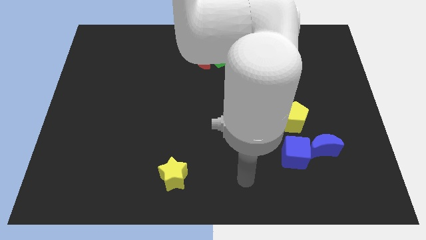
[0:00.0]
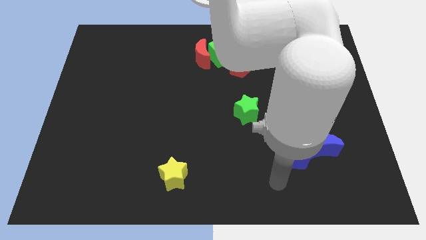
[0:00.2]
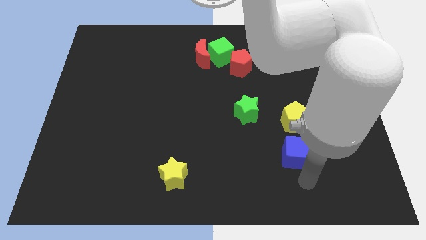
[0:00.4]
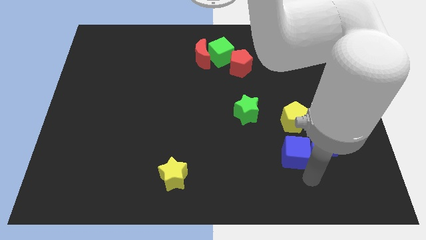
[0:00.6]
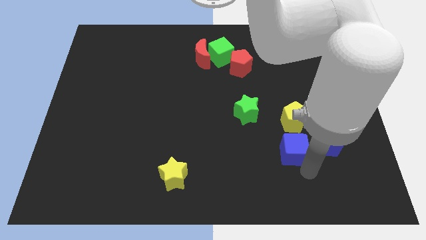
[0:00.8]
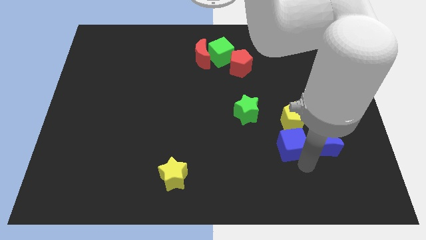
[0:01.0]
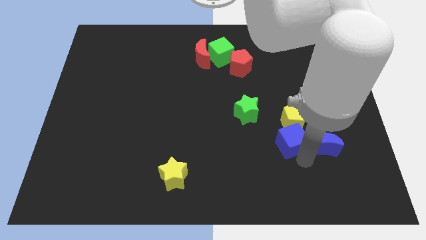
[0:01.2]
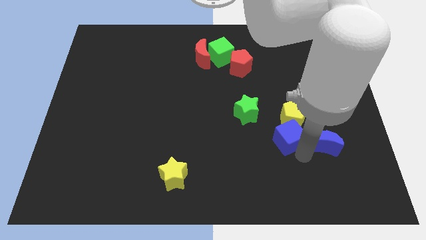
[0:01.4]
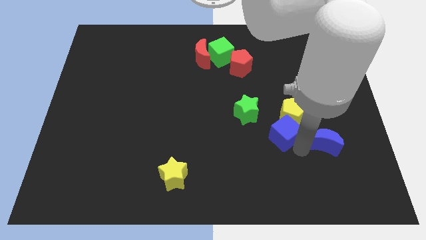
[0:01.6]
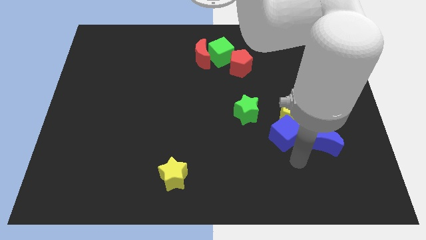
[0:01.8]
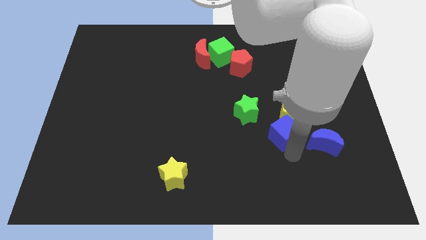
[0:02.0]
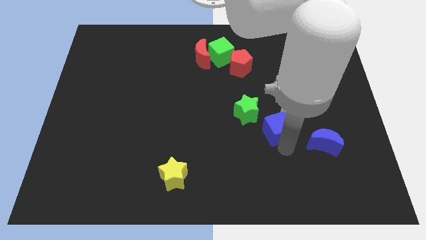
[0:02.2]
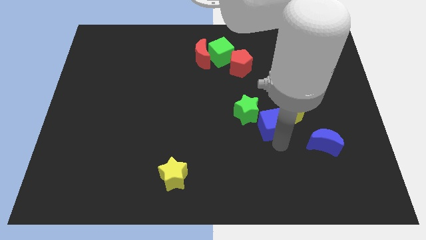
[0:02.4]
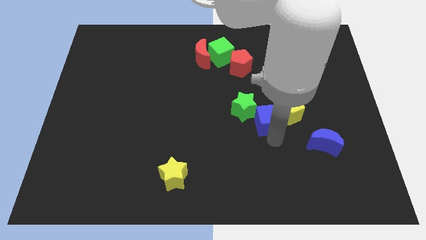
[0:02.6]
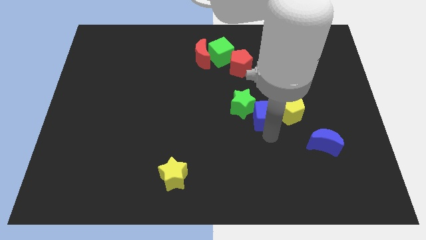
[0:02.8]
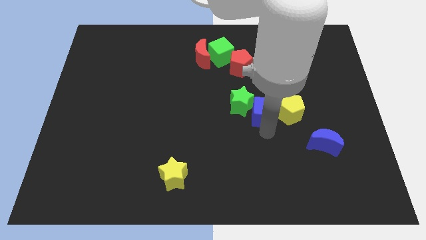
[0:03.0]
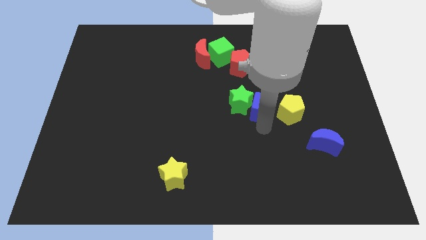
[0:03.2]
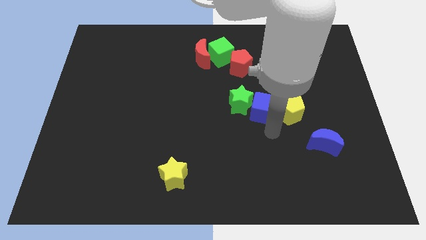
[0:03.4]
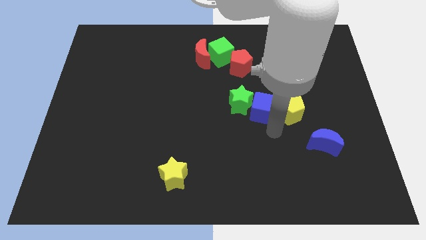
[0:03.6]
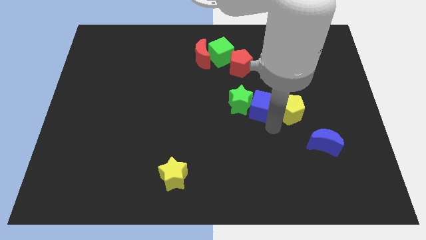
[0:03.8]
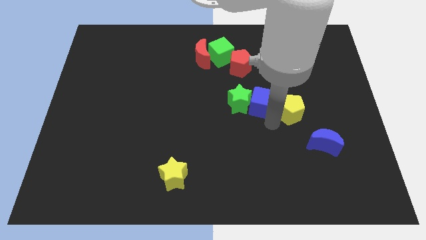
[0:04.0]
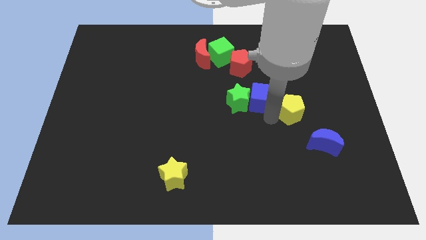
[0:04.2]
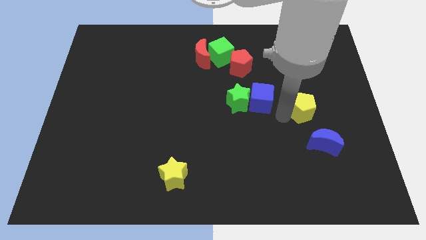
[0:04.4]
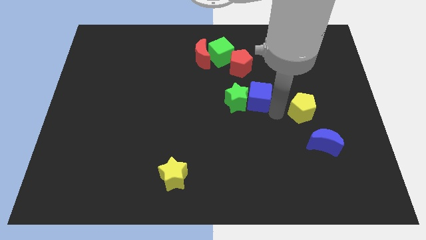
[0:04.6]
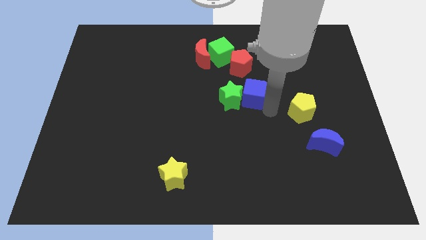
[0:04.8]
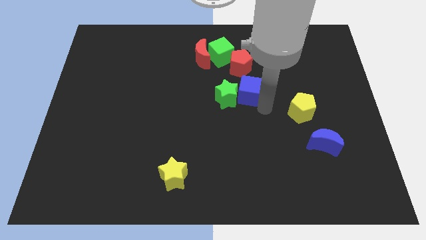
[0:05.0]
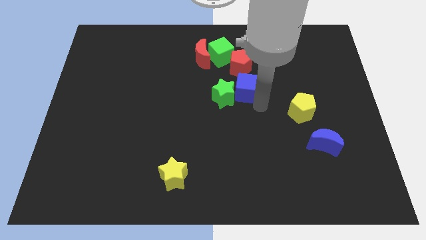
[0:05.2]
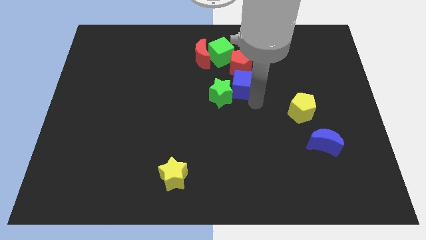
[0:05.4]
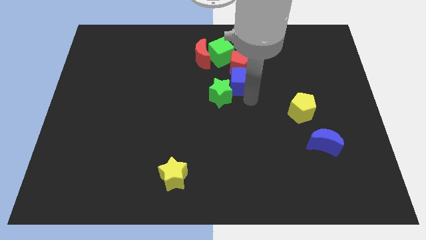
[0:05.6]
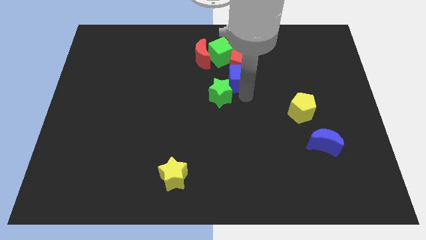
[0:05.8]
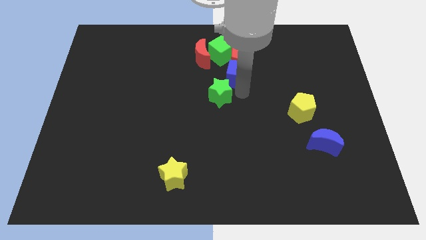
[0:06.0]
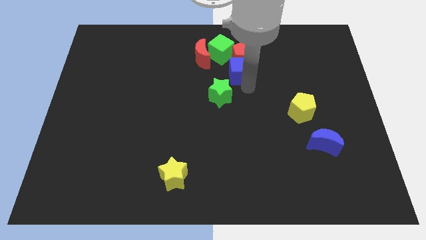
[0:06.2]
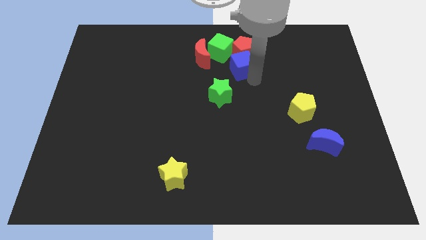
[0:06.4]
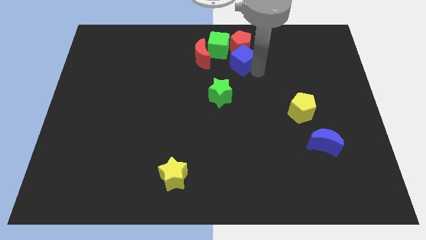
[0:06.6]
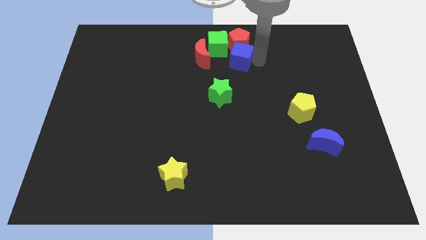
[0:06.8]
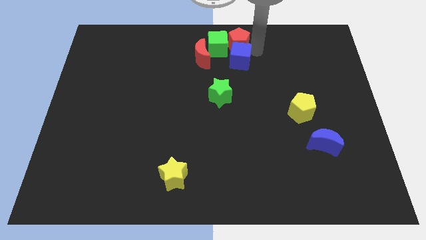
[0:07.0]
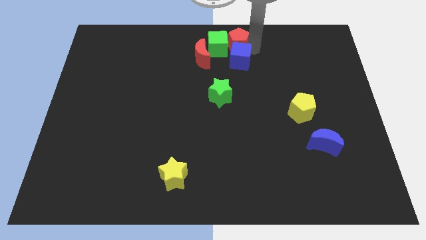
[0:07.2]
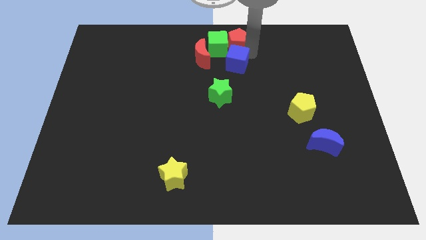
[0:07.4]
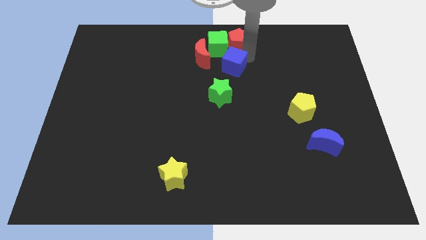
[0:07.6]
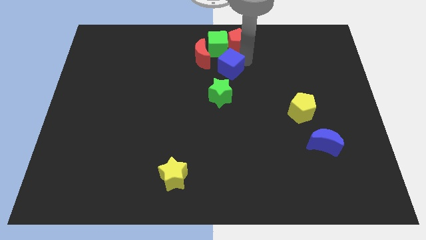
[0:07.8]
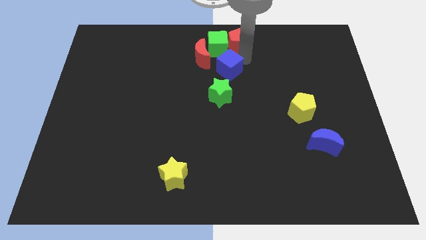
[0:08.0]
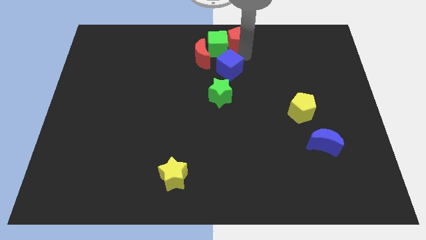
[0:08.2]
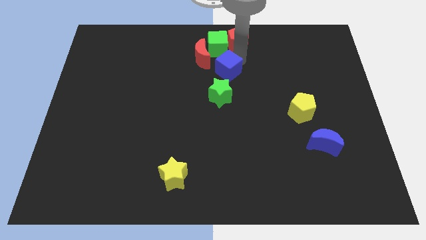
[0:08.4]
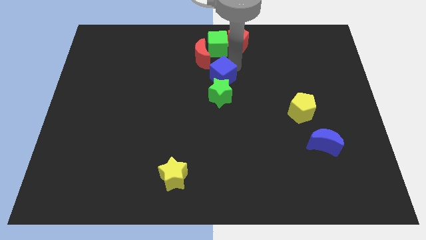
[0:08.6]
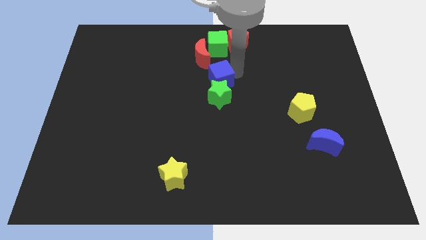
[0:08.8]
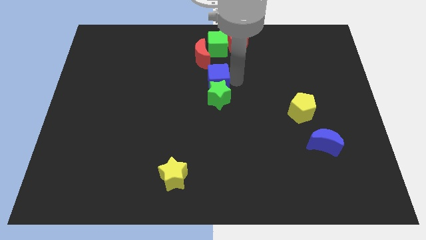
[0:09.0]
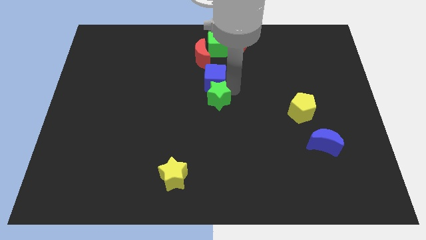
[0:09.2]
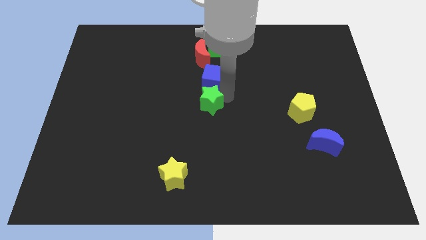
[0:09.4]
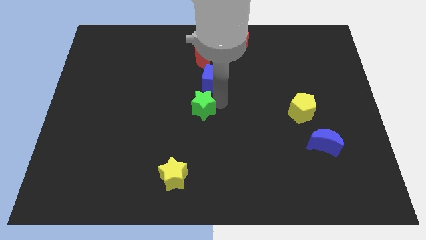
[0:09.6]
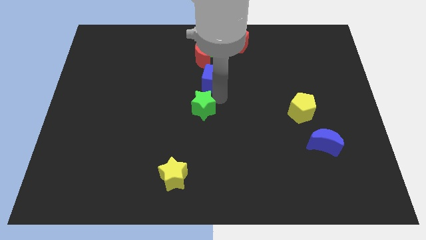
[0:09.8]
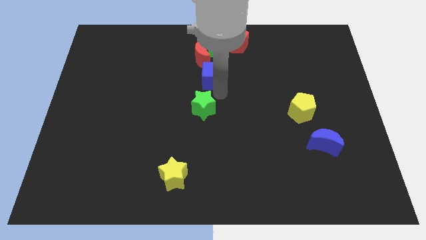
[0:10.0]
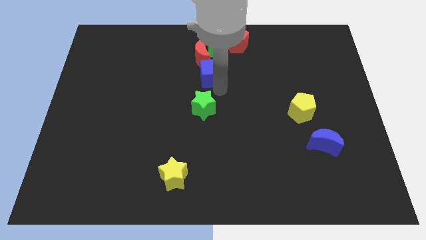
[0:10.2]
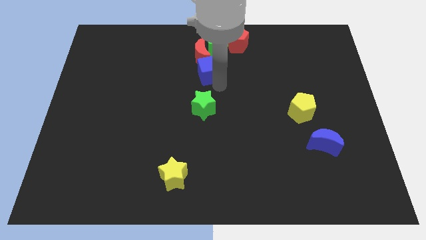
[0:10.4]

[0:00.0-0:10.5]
move the blue cube towards the red moon

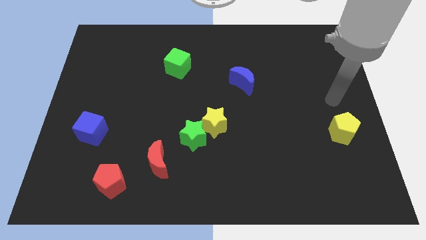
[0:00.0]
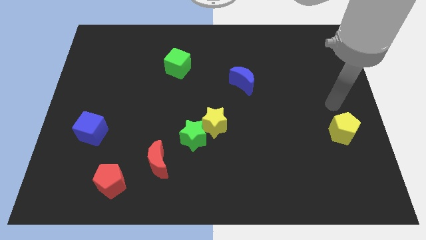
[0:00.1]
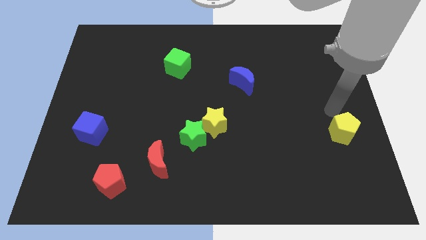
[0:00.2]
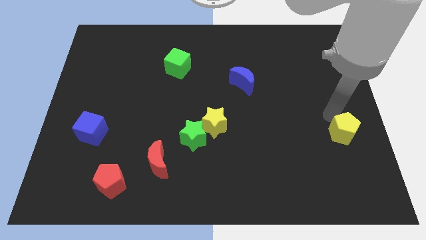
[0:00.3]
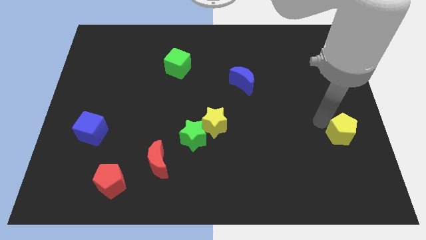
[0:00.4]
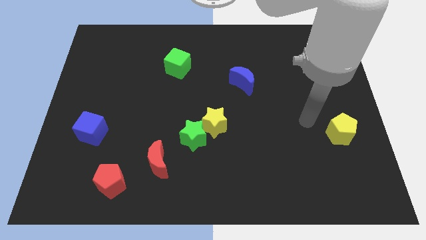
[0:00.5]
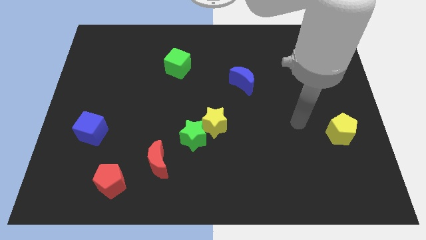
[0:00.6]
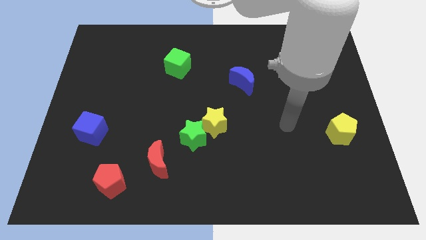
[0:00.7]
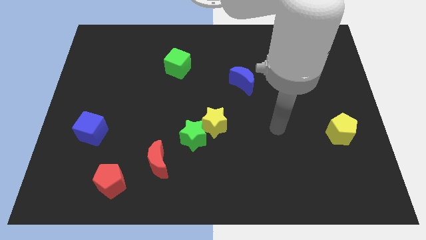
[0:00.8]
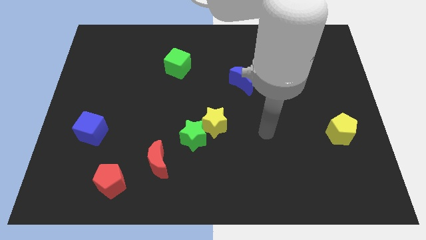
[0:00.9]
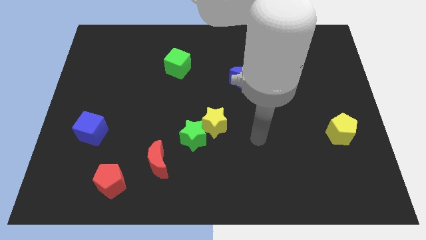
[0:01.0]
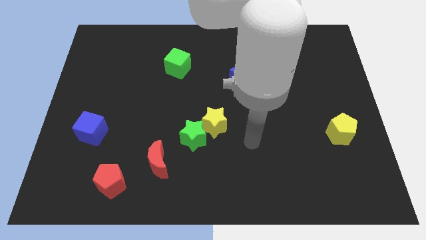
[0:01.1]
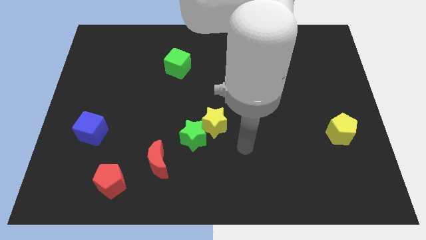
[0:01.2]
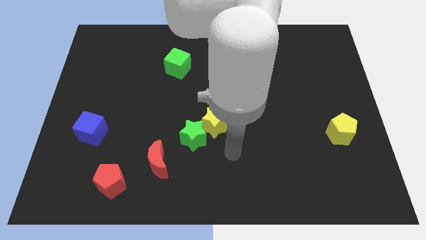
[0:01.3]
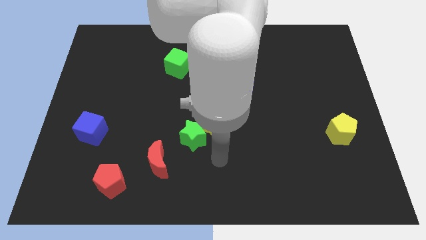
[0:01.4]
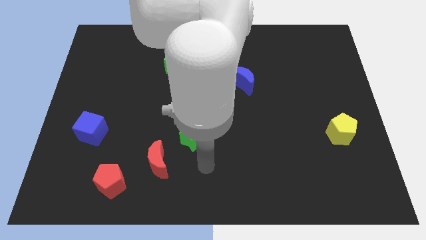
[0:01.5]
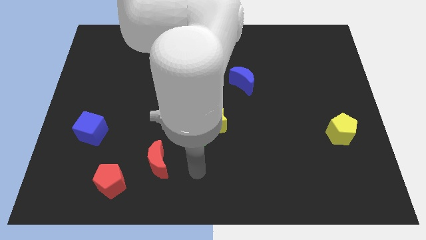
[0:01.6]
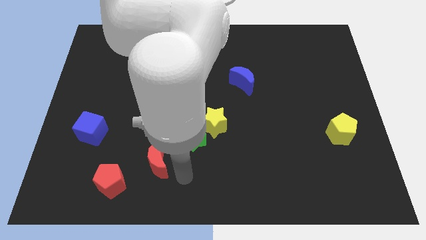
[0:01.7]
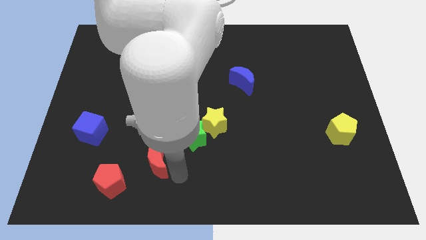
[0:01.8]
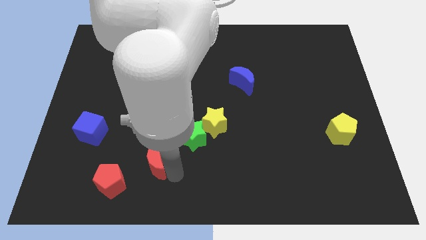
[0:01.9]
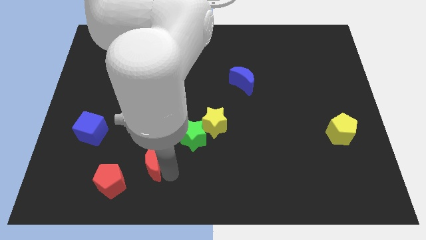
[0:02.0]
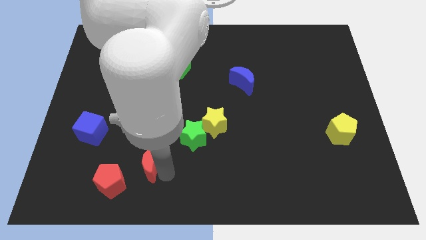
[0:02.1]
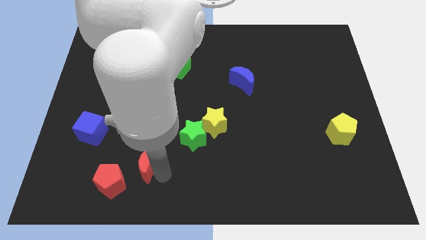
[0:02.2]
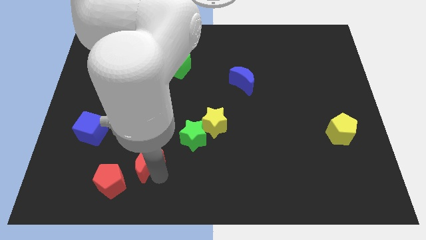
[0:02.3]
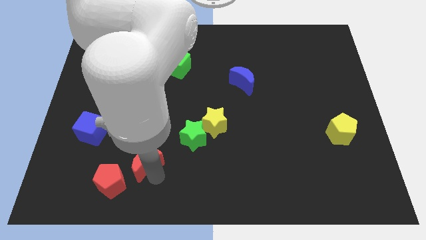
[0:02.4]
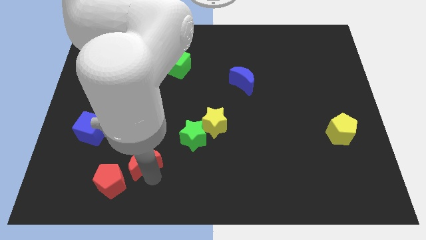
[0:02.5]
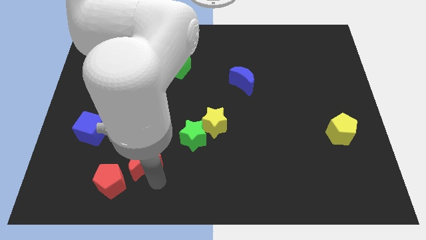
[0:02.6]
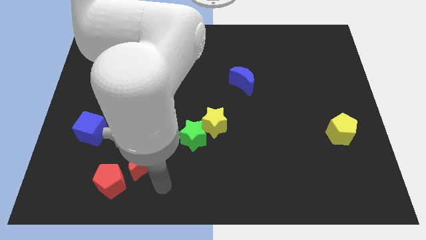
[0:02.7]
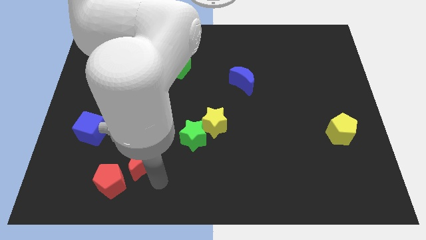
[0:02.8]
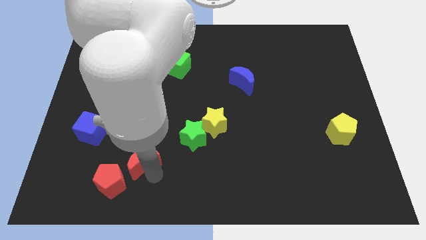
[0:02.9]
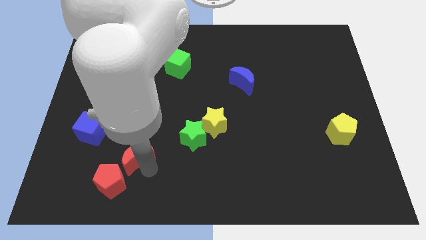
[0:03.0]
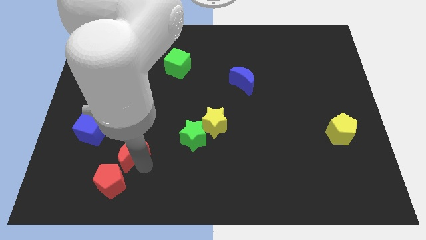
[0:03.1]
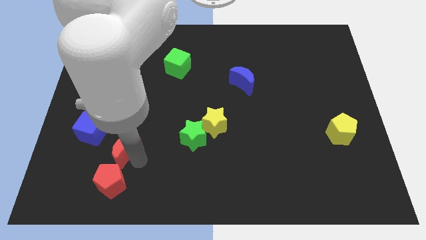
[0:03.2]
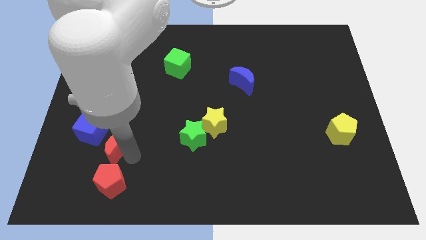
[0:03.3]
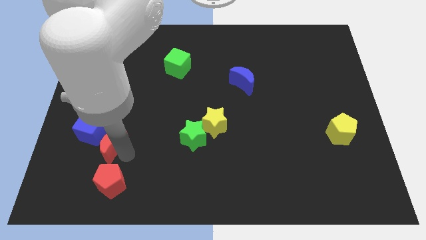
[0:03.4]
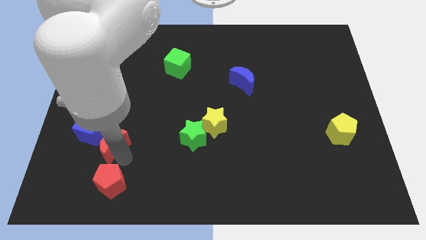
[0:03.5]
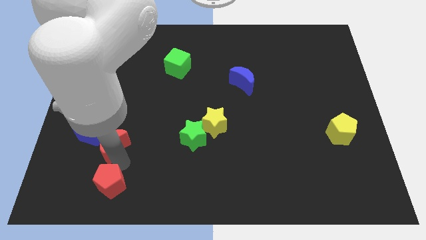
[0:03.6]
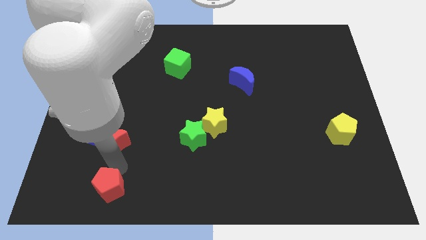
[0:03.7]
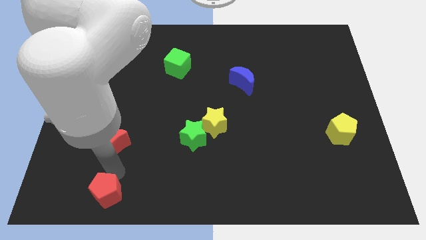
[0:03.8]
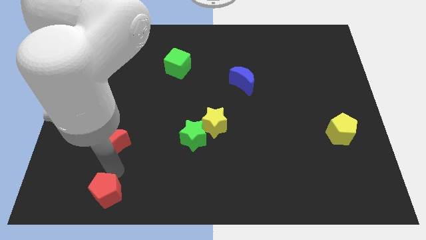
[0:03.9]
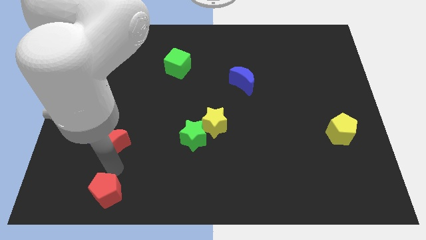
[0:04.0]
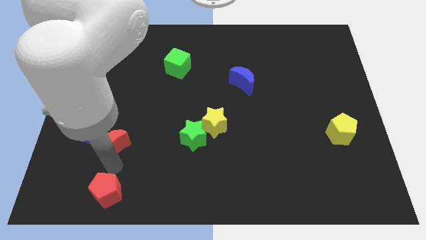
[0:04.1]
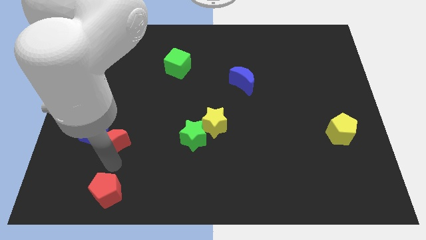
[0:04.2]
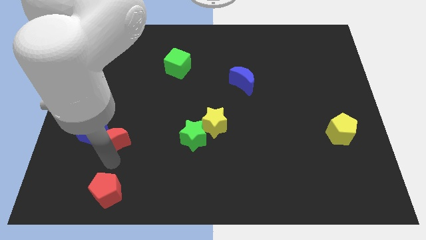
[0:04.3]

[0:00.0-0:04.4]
slide the red moon to the blue cube
